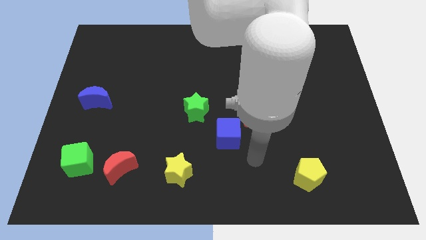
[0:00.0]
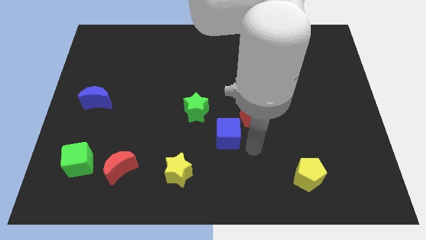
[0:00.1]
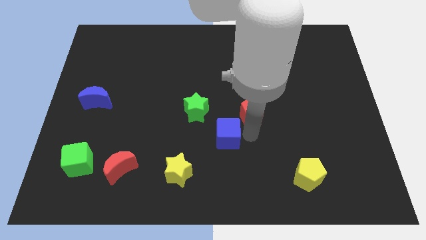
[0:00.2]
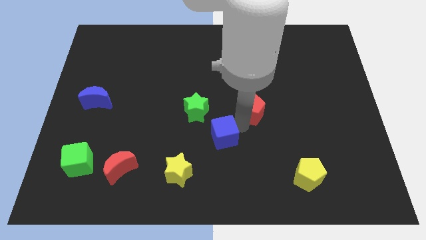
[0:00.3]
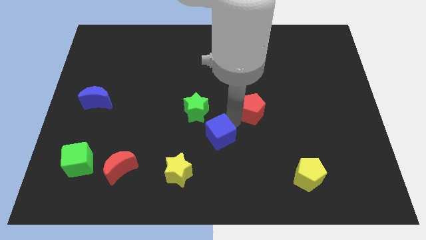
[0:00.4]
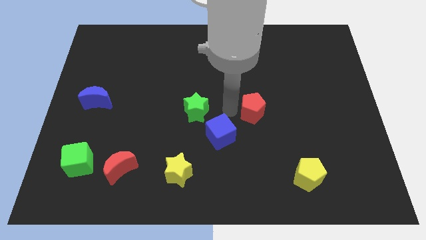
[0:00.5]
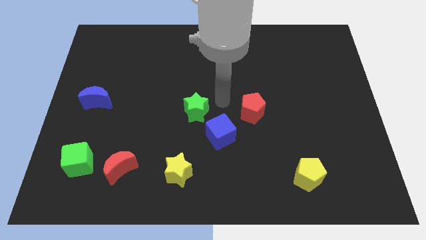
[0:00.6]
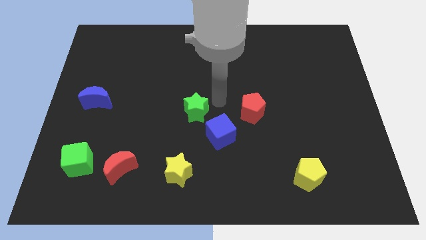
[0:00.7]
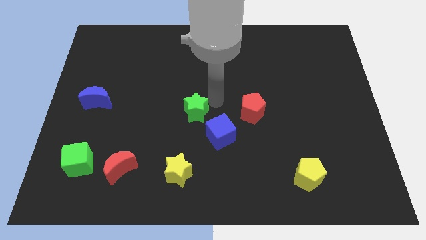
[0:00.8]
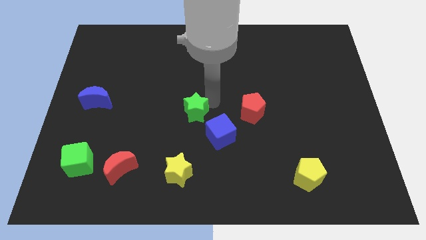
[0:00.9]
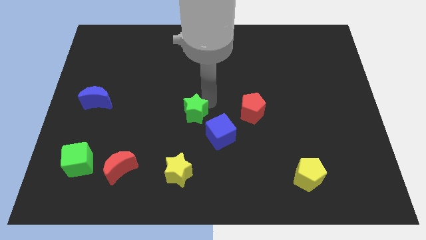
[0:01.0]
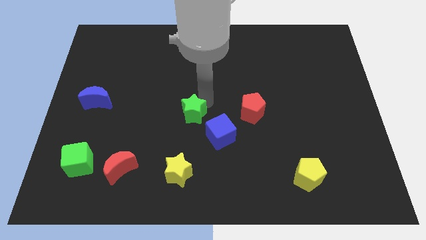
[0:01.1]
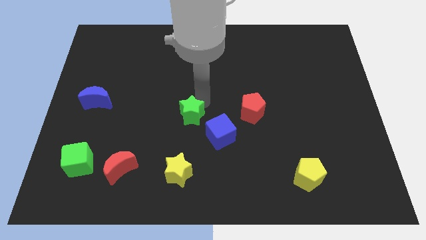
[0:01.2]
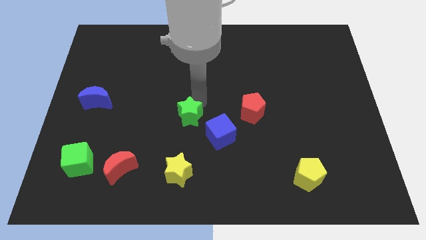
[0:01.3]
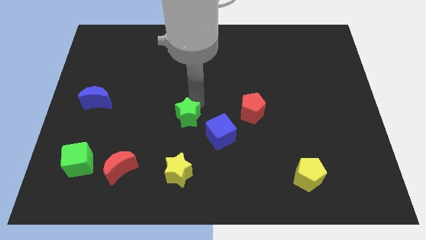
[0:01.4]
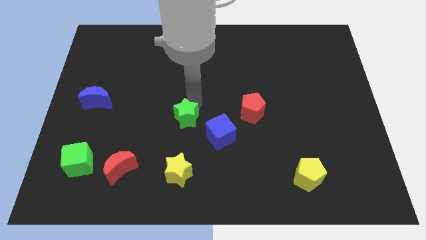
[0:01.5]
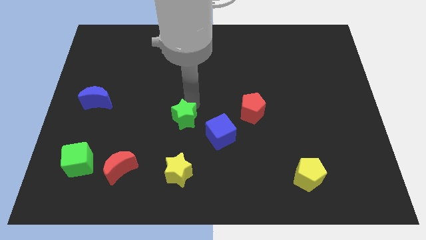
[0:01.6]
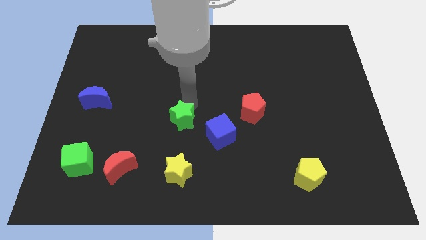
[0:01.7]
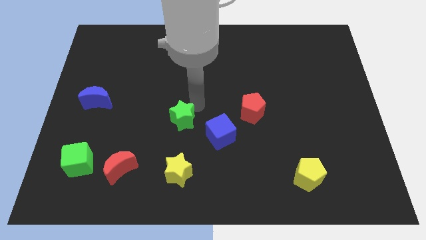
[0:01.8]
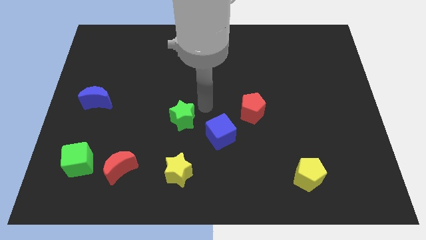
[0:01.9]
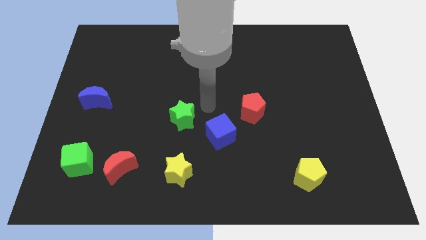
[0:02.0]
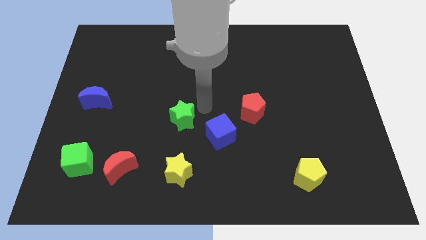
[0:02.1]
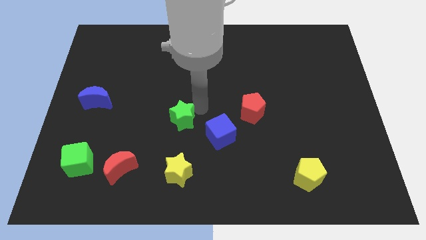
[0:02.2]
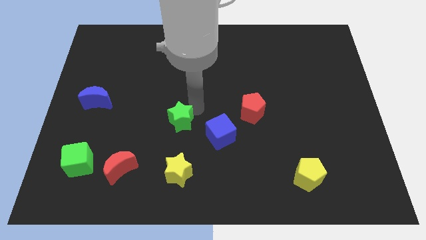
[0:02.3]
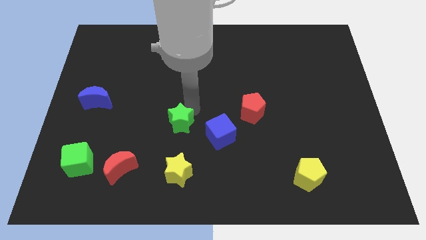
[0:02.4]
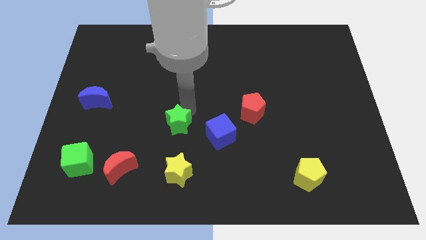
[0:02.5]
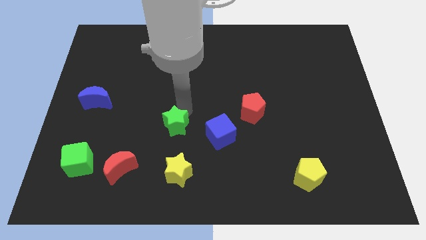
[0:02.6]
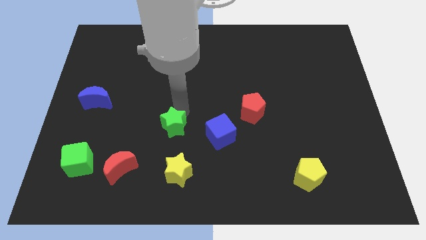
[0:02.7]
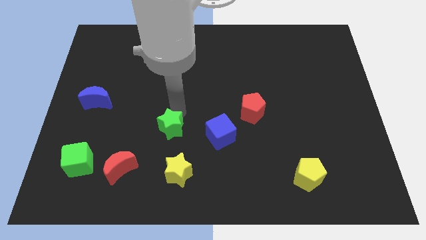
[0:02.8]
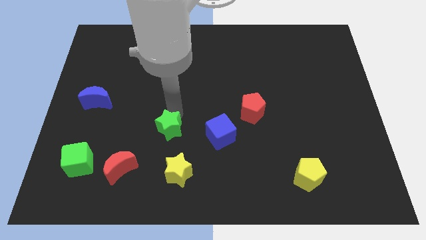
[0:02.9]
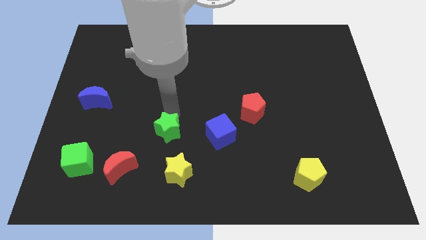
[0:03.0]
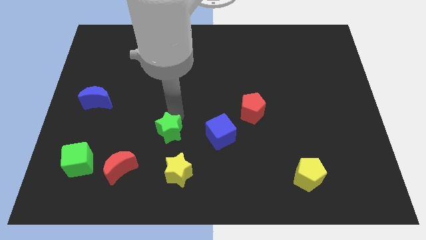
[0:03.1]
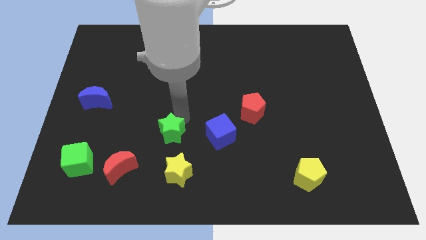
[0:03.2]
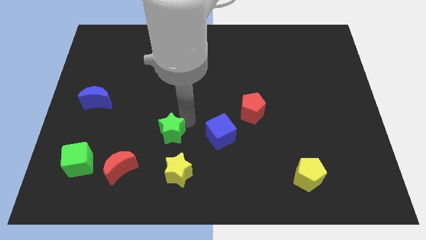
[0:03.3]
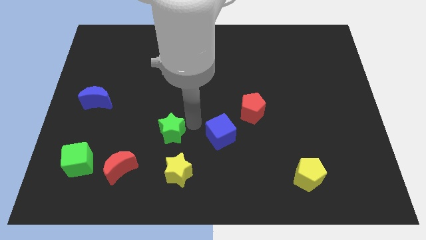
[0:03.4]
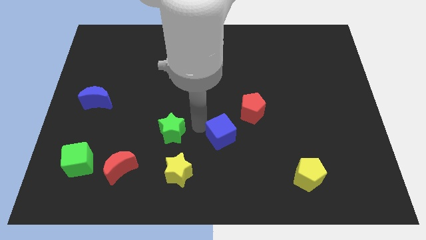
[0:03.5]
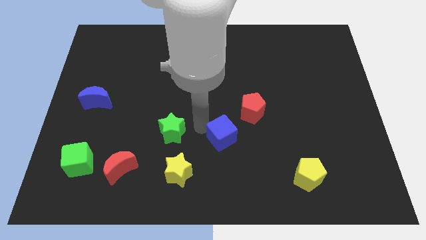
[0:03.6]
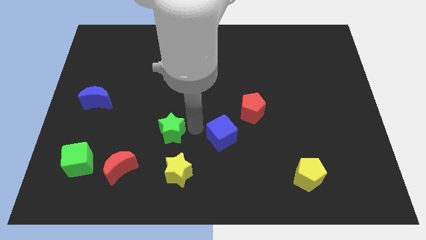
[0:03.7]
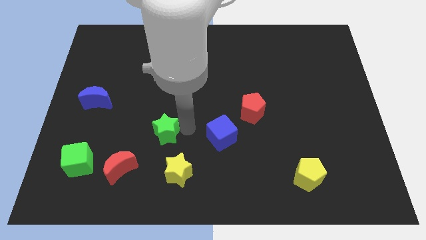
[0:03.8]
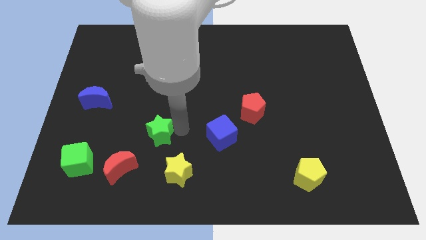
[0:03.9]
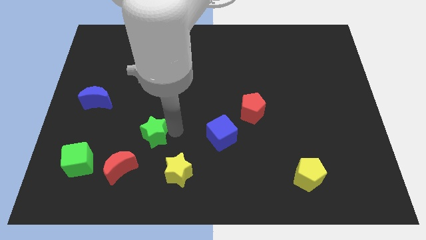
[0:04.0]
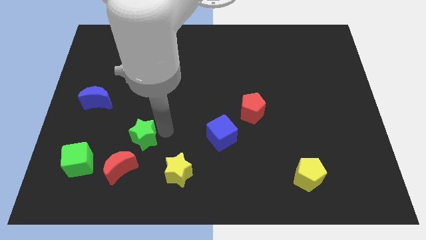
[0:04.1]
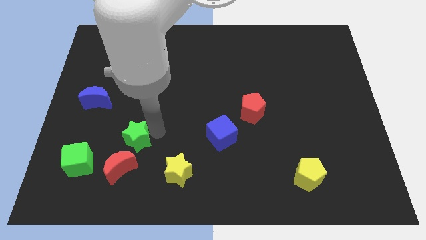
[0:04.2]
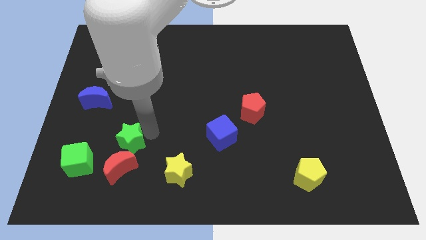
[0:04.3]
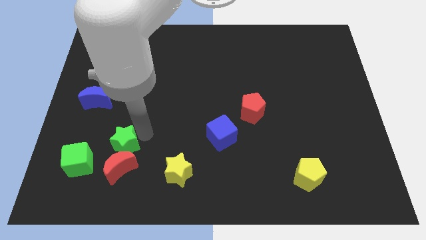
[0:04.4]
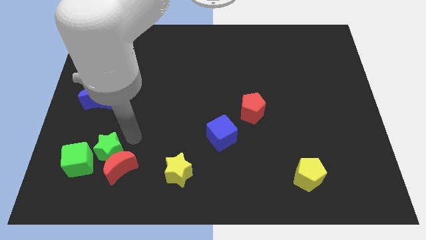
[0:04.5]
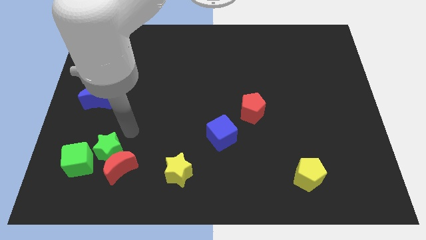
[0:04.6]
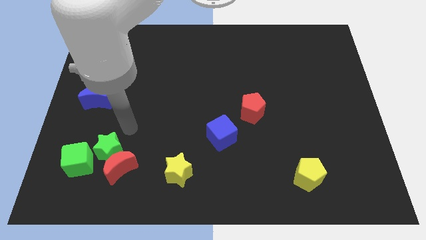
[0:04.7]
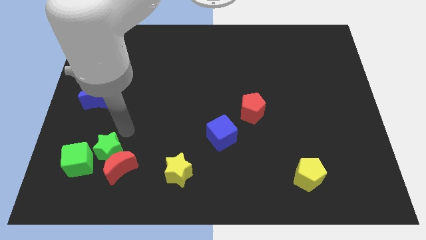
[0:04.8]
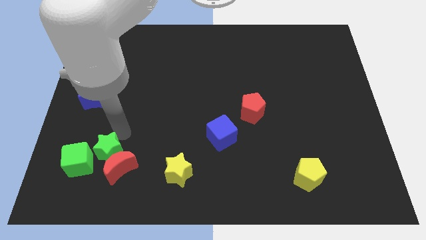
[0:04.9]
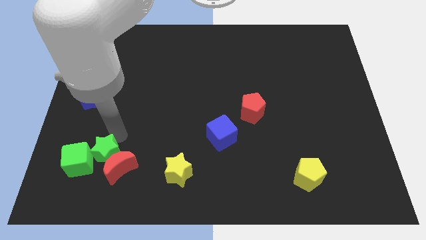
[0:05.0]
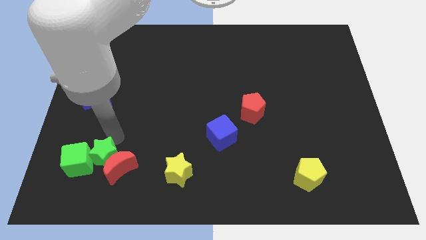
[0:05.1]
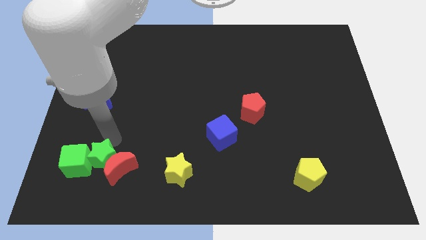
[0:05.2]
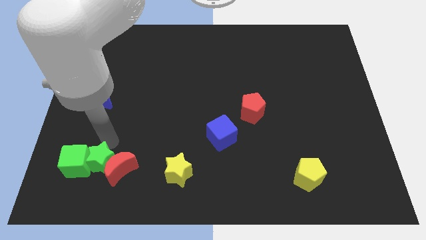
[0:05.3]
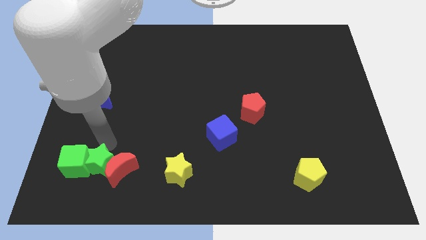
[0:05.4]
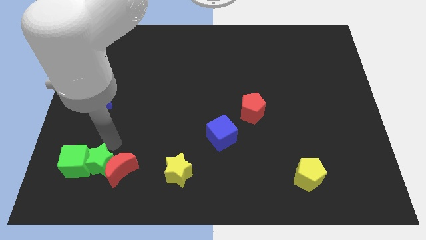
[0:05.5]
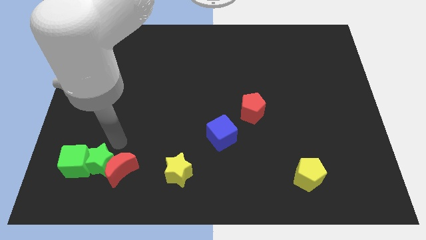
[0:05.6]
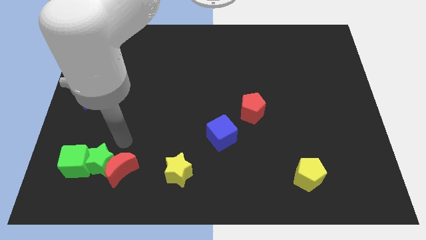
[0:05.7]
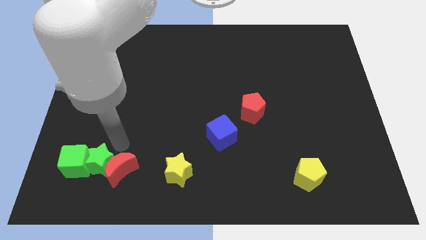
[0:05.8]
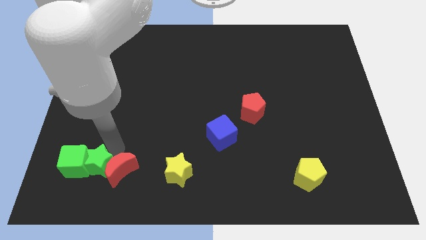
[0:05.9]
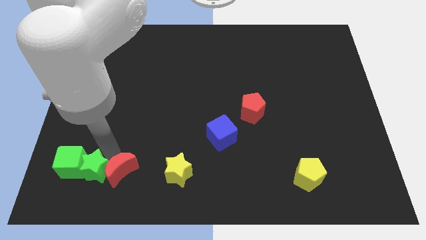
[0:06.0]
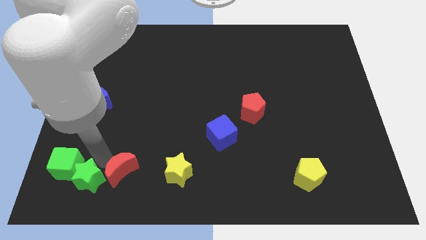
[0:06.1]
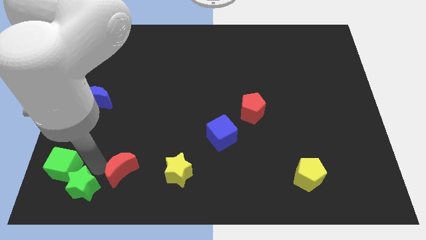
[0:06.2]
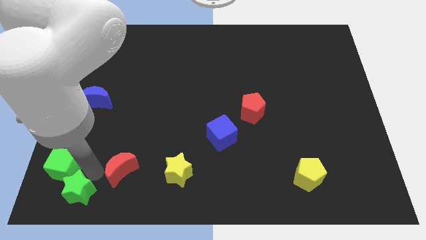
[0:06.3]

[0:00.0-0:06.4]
put the green star to the lower left corner

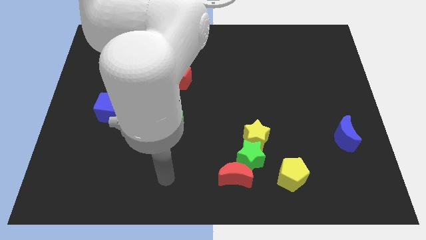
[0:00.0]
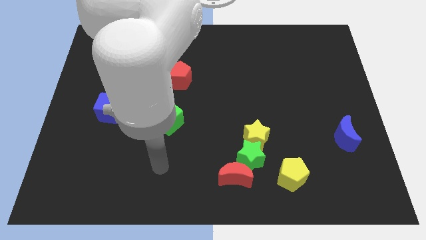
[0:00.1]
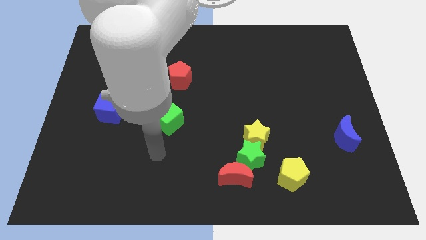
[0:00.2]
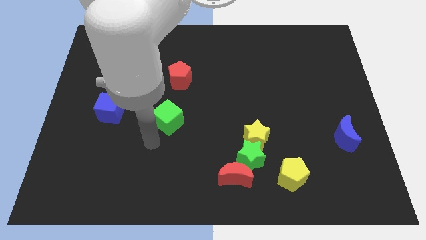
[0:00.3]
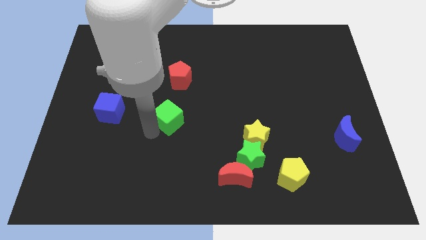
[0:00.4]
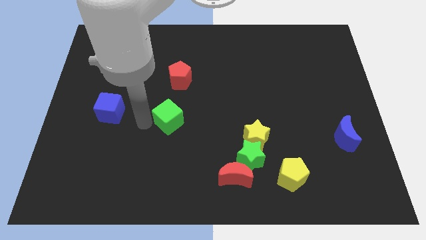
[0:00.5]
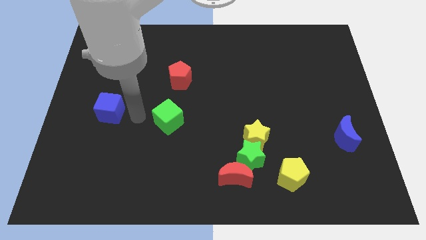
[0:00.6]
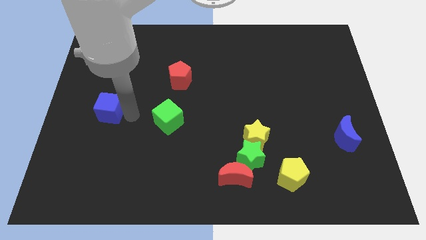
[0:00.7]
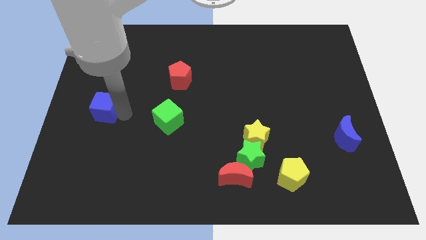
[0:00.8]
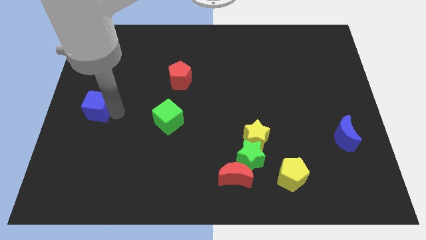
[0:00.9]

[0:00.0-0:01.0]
move the blue cube to the left side

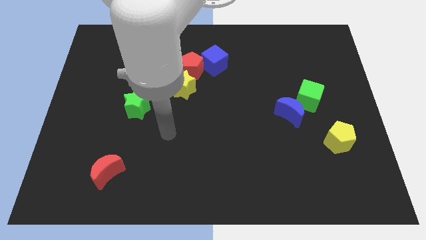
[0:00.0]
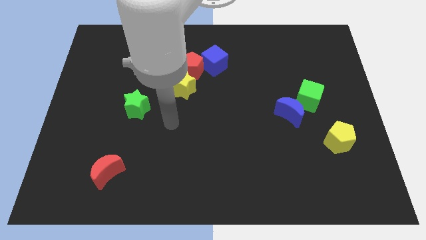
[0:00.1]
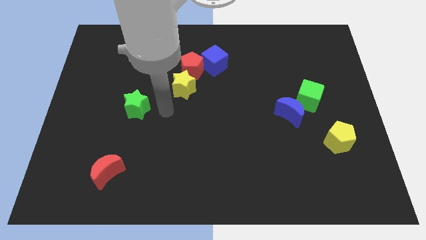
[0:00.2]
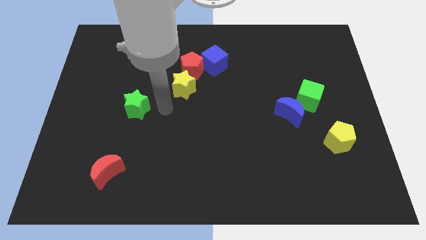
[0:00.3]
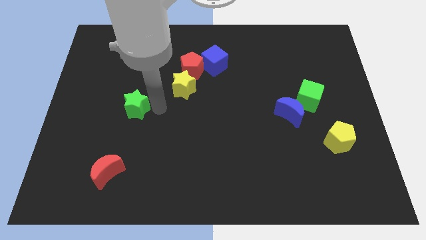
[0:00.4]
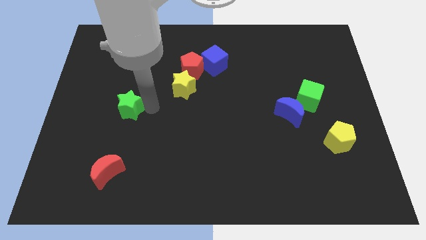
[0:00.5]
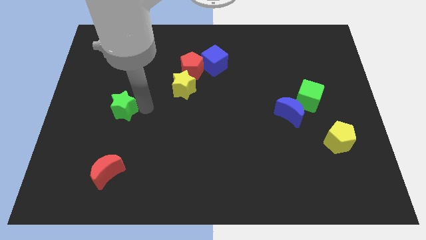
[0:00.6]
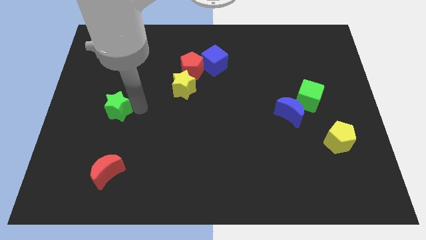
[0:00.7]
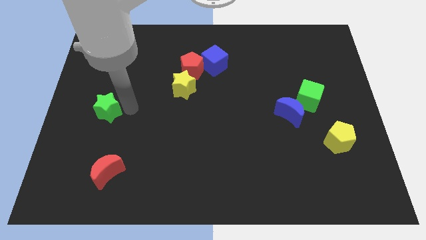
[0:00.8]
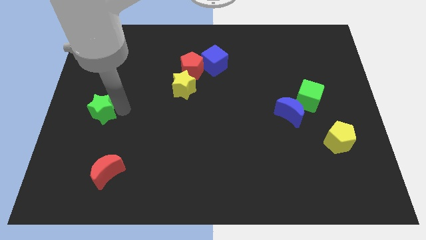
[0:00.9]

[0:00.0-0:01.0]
push the green star to the center left
